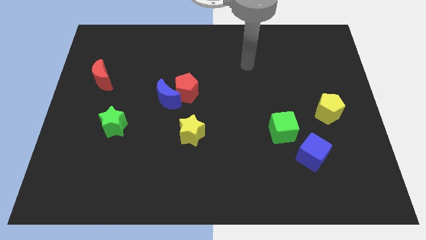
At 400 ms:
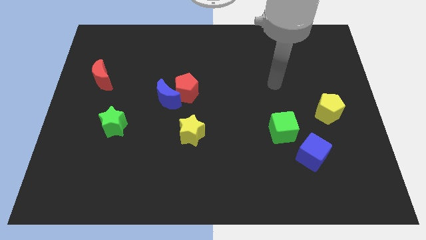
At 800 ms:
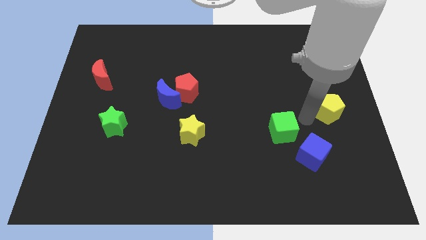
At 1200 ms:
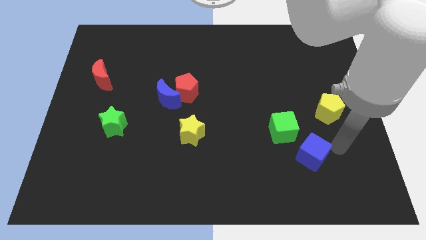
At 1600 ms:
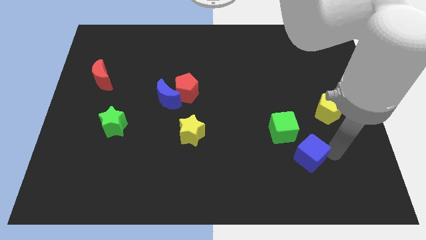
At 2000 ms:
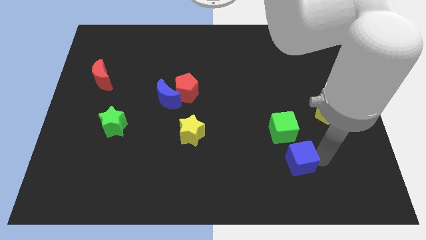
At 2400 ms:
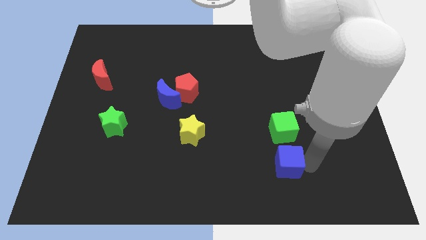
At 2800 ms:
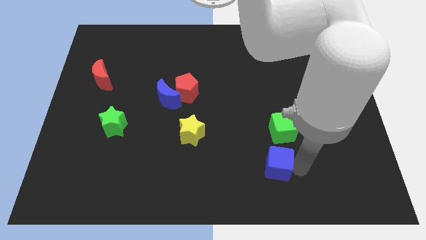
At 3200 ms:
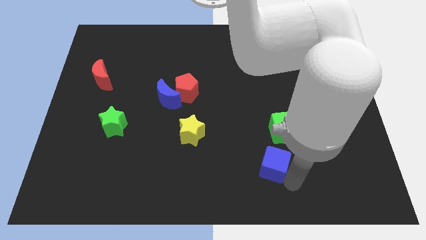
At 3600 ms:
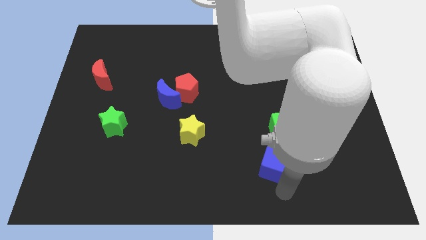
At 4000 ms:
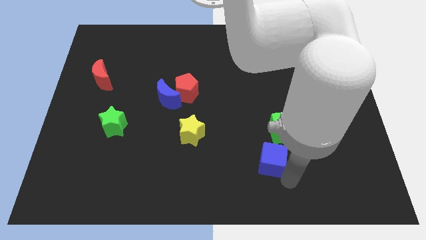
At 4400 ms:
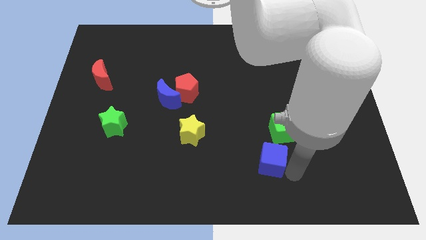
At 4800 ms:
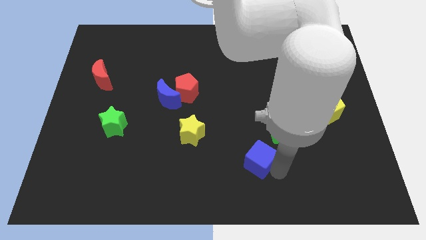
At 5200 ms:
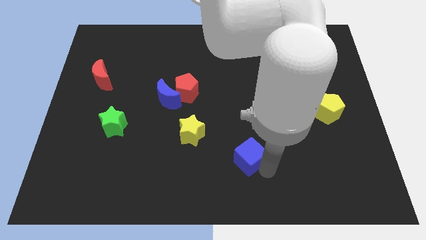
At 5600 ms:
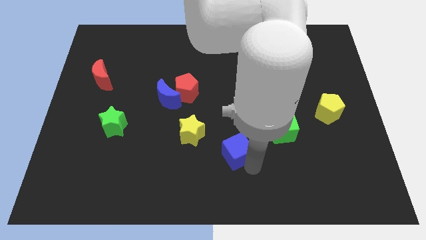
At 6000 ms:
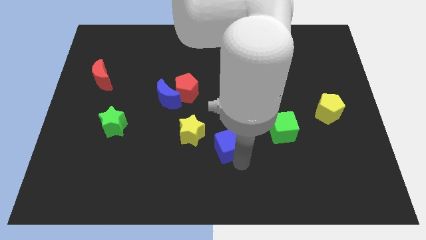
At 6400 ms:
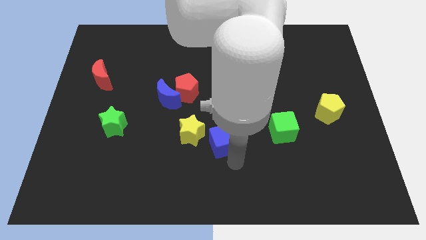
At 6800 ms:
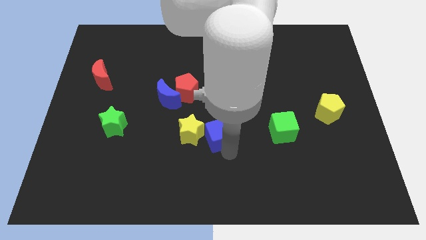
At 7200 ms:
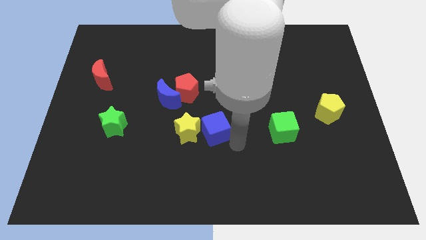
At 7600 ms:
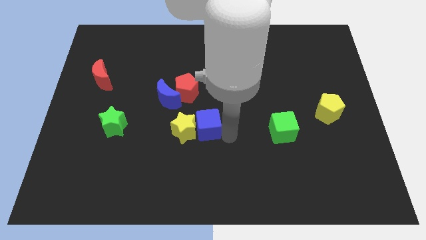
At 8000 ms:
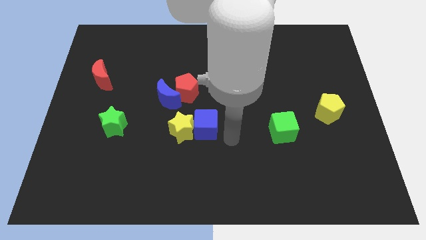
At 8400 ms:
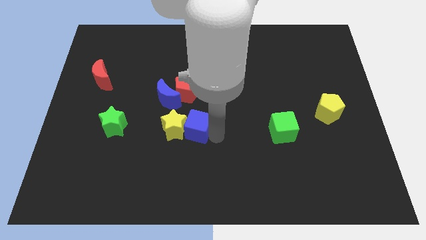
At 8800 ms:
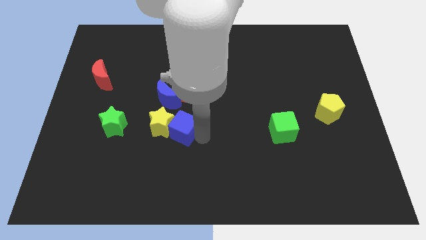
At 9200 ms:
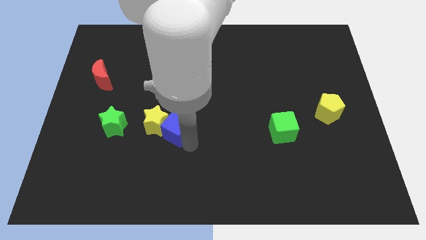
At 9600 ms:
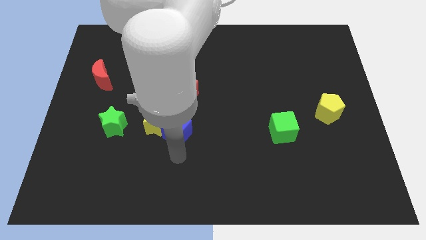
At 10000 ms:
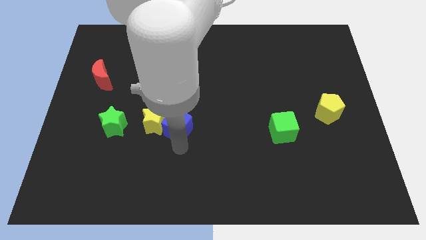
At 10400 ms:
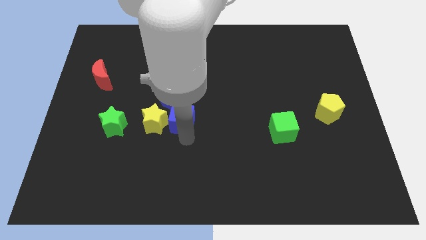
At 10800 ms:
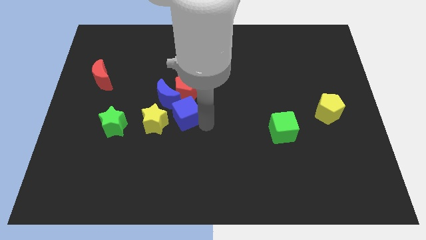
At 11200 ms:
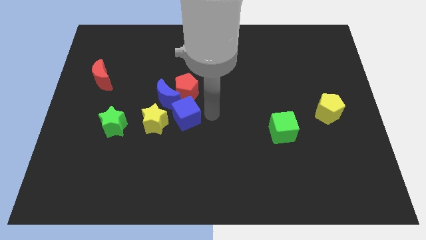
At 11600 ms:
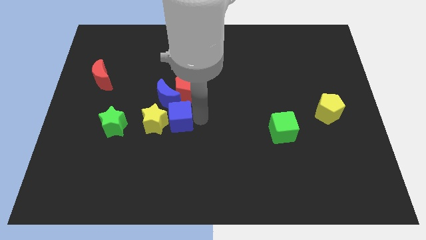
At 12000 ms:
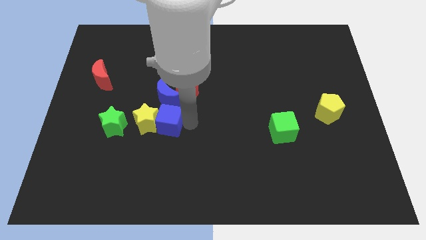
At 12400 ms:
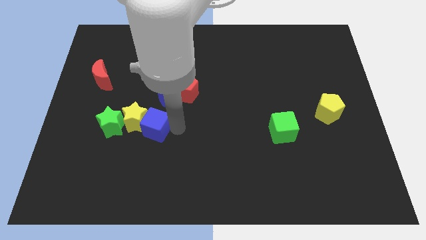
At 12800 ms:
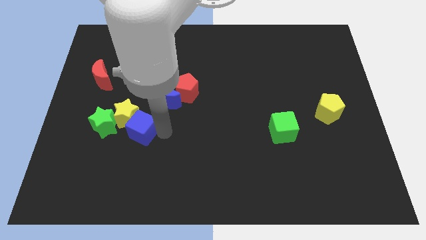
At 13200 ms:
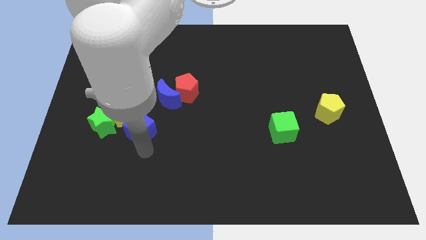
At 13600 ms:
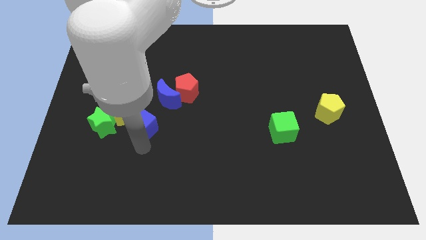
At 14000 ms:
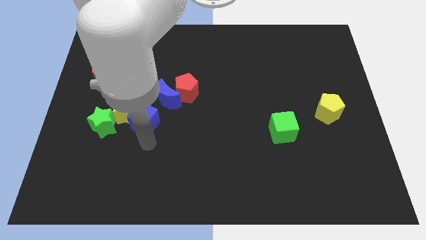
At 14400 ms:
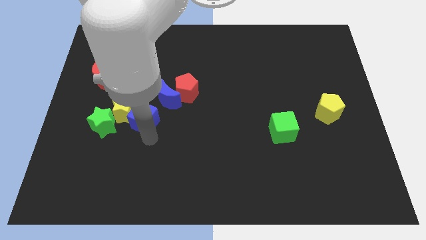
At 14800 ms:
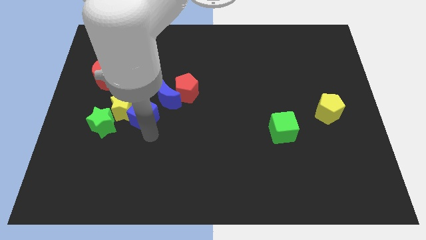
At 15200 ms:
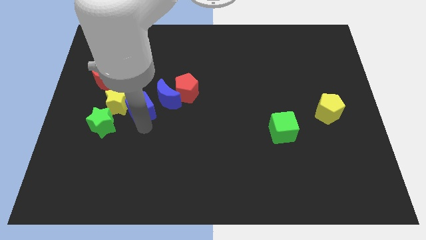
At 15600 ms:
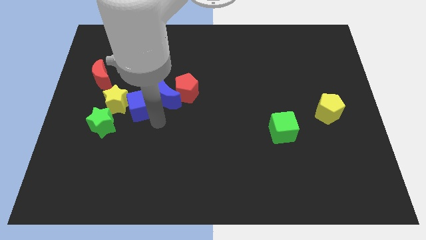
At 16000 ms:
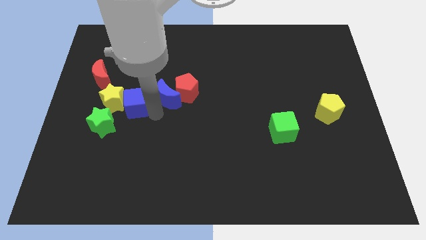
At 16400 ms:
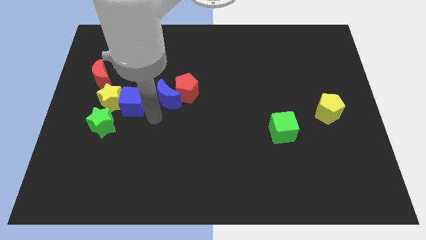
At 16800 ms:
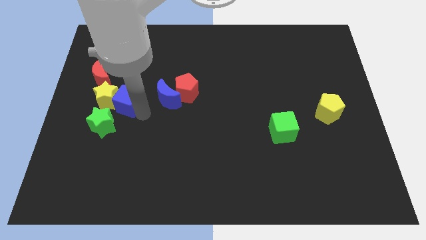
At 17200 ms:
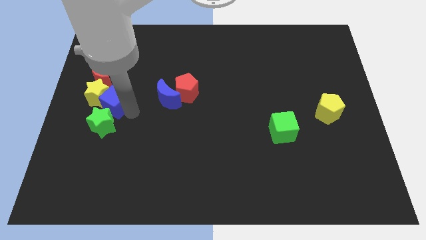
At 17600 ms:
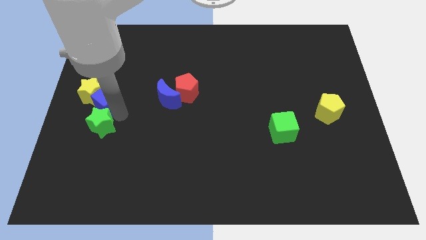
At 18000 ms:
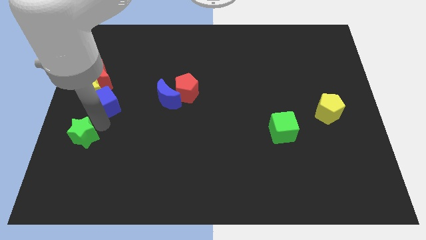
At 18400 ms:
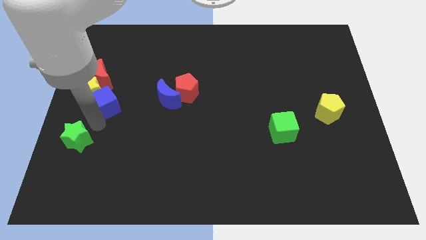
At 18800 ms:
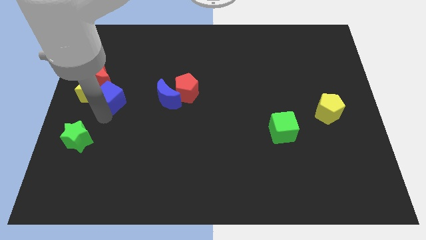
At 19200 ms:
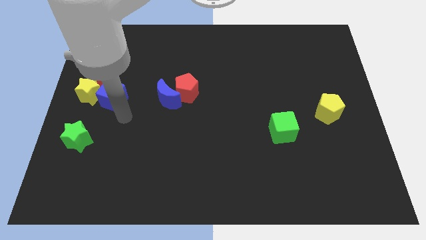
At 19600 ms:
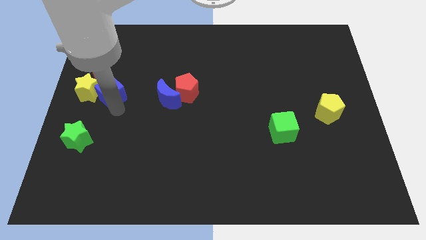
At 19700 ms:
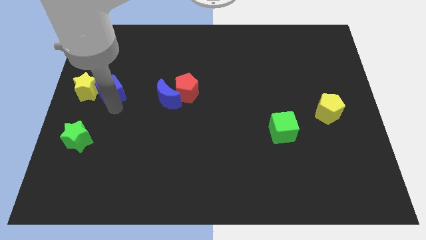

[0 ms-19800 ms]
put the blue cube to the red moon

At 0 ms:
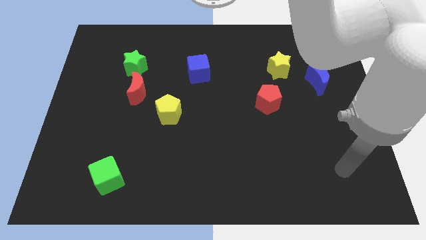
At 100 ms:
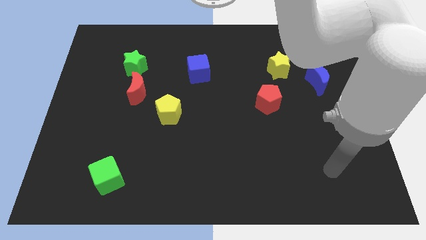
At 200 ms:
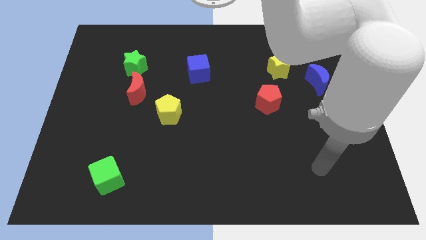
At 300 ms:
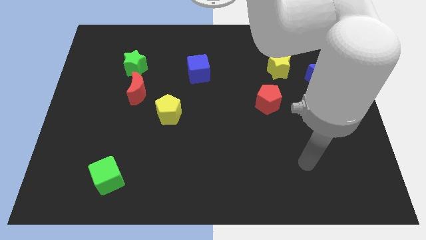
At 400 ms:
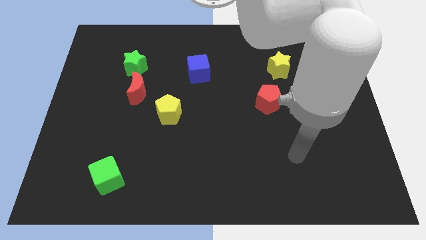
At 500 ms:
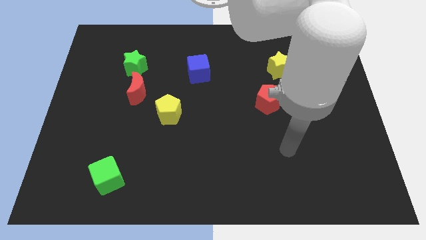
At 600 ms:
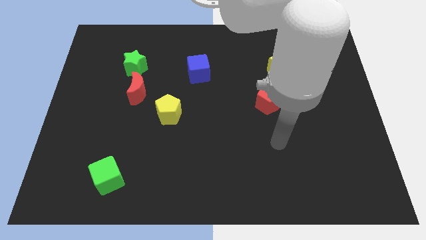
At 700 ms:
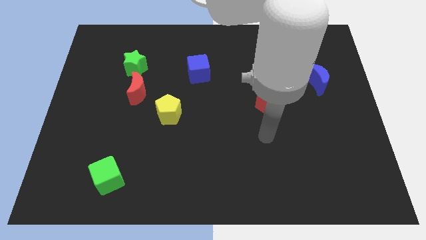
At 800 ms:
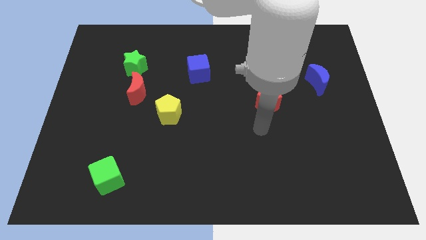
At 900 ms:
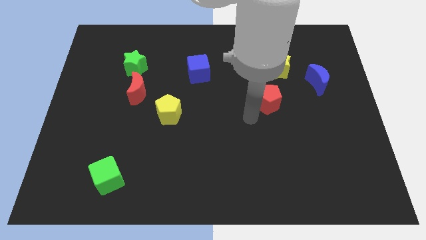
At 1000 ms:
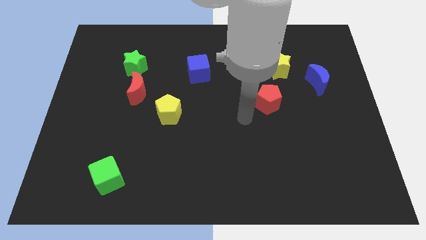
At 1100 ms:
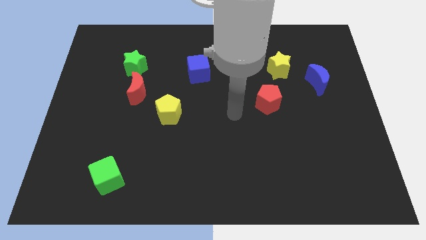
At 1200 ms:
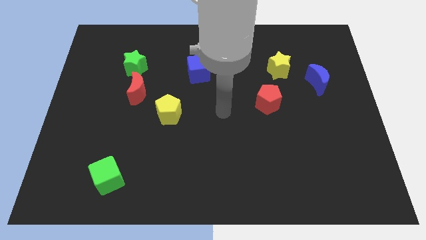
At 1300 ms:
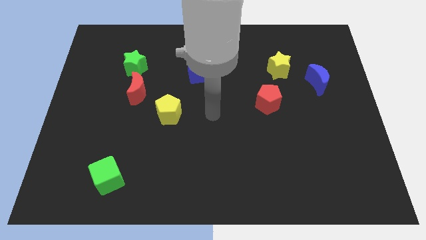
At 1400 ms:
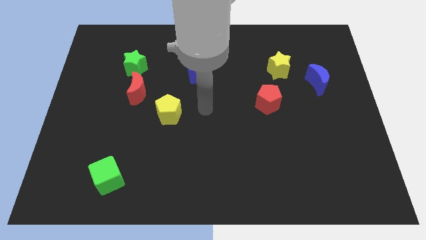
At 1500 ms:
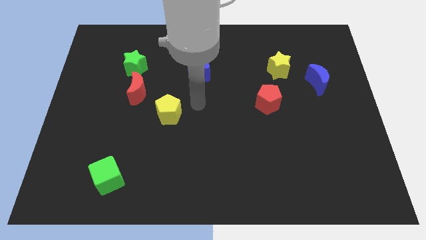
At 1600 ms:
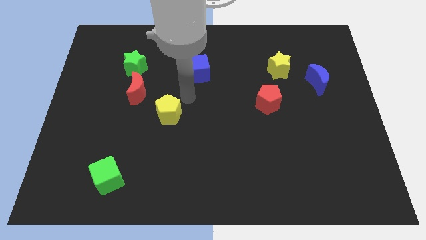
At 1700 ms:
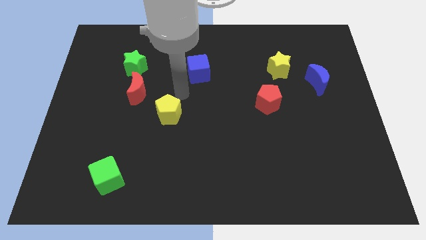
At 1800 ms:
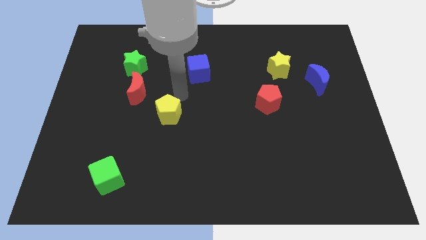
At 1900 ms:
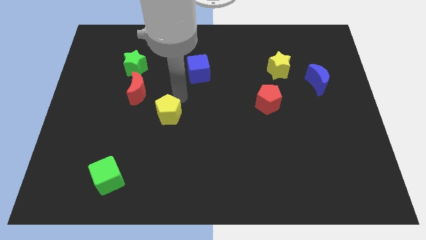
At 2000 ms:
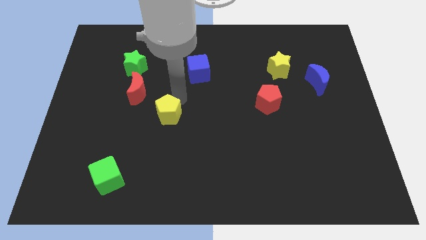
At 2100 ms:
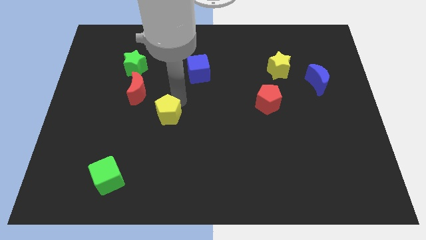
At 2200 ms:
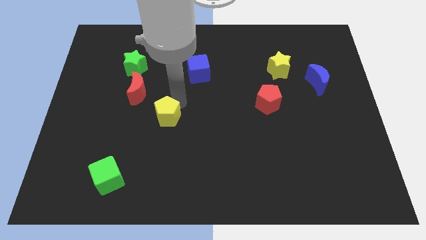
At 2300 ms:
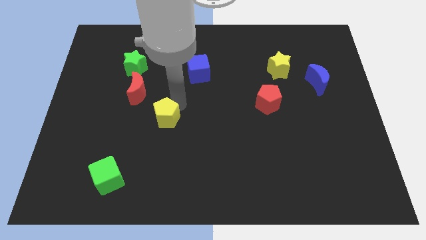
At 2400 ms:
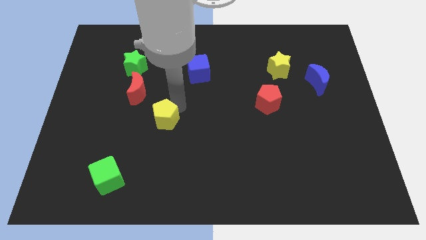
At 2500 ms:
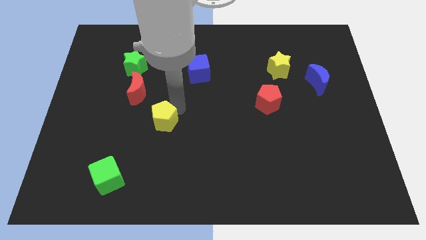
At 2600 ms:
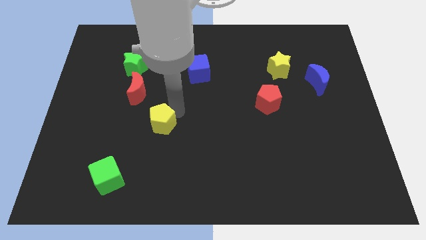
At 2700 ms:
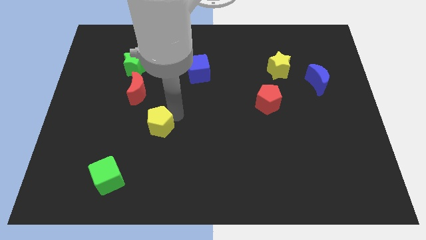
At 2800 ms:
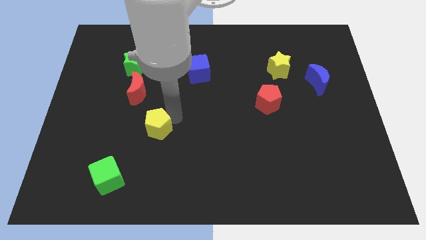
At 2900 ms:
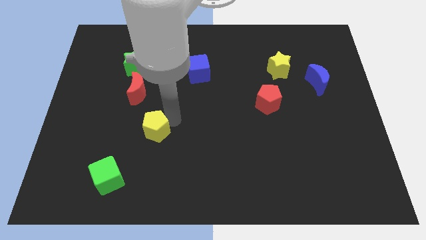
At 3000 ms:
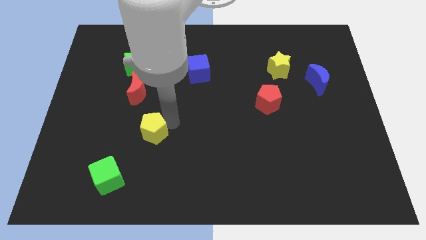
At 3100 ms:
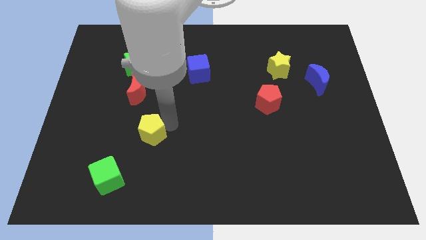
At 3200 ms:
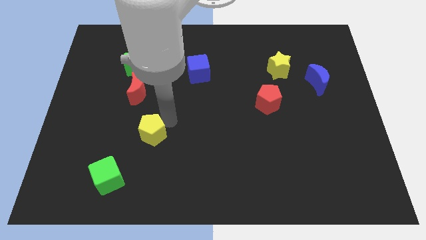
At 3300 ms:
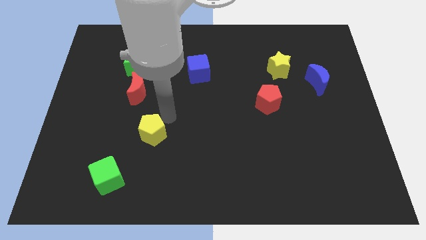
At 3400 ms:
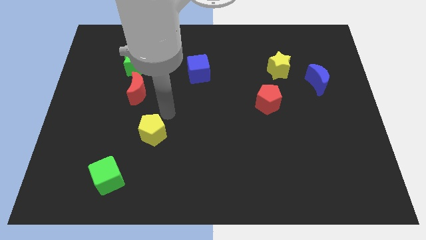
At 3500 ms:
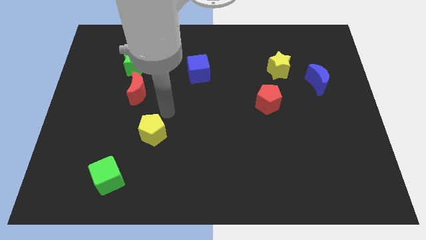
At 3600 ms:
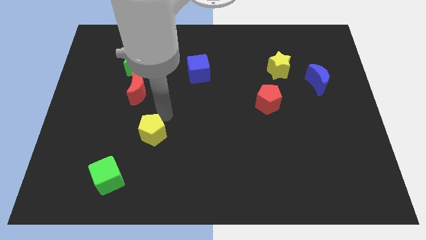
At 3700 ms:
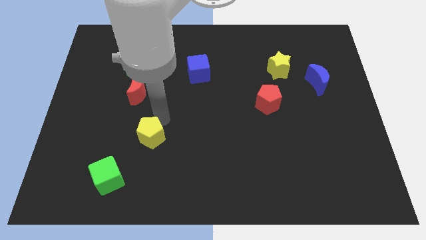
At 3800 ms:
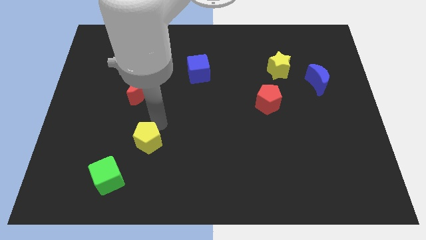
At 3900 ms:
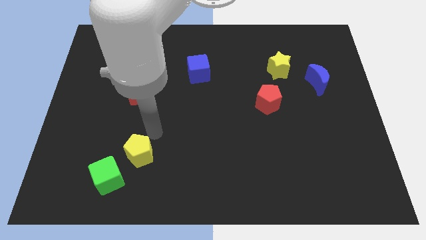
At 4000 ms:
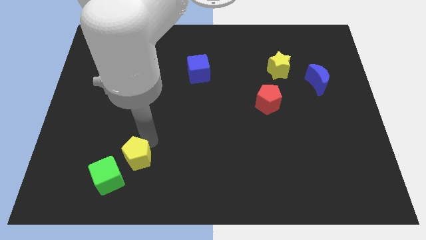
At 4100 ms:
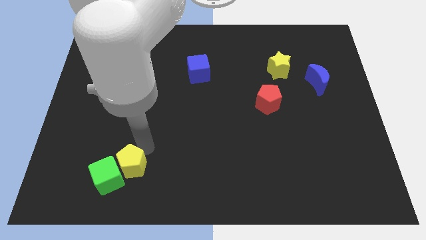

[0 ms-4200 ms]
slide the yellow pentagon close to the green cube
